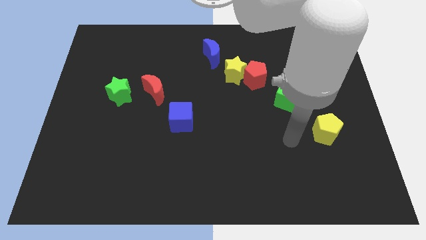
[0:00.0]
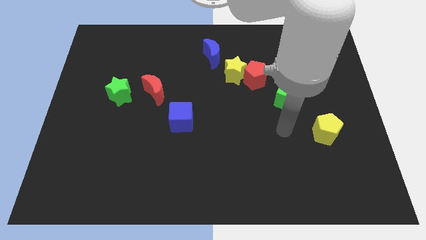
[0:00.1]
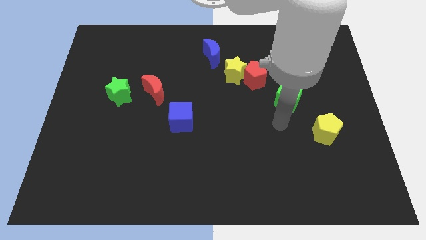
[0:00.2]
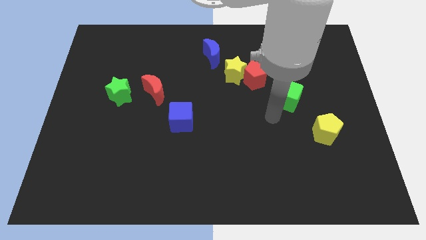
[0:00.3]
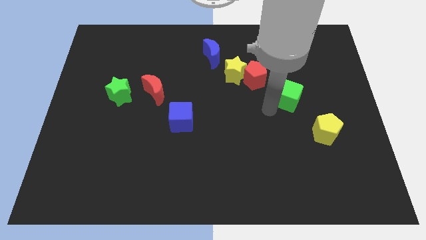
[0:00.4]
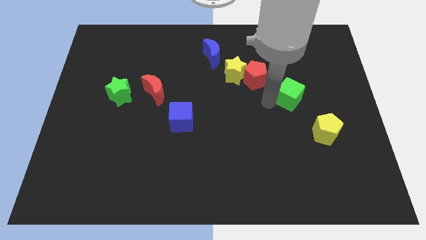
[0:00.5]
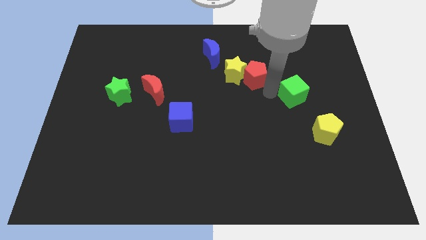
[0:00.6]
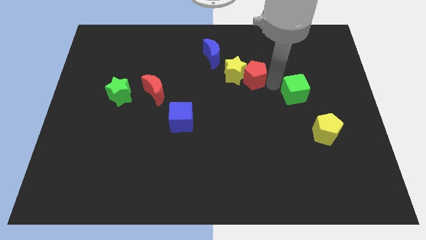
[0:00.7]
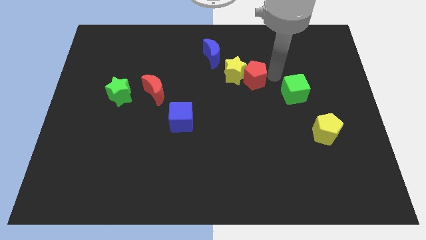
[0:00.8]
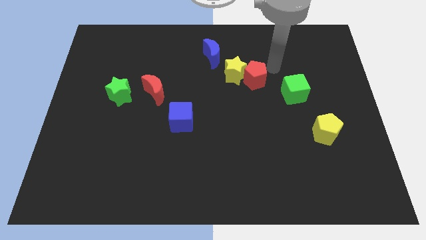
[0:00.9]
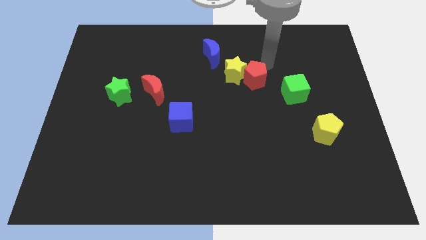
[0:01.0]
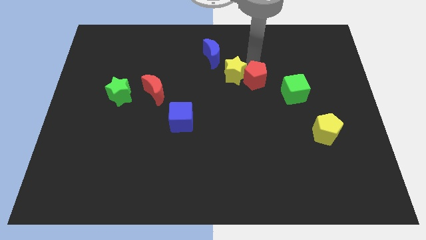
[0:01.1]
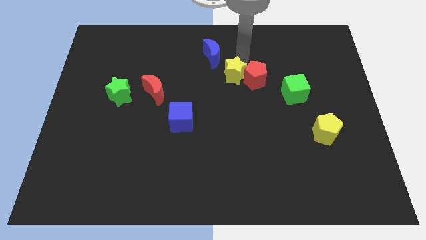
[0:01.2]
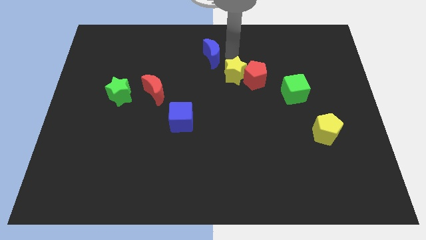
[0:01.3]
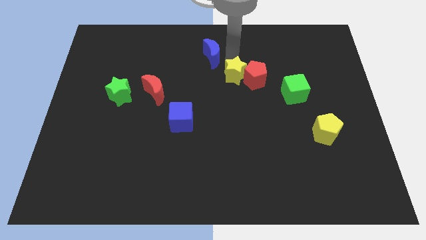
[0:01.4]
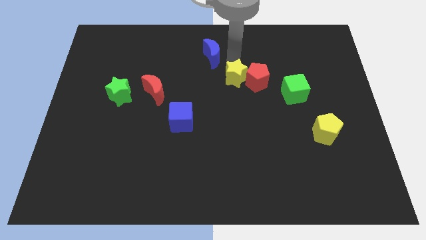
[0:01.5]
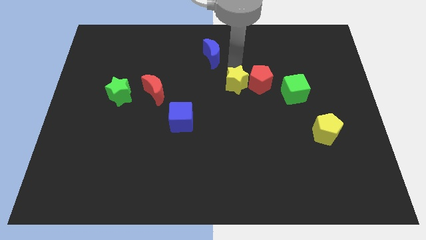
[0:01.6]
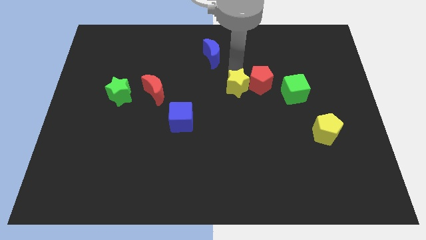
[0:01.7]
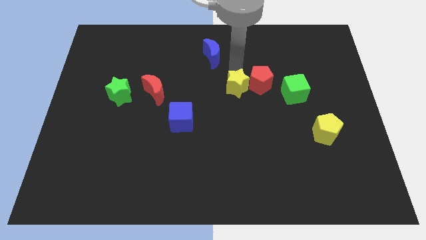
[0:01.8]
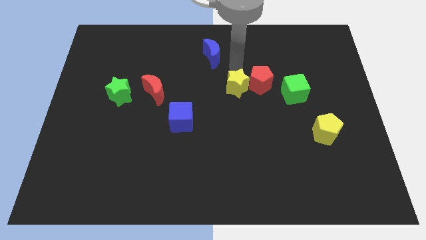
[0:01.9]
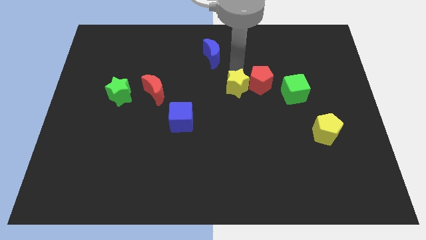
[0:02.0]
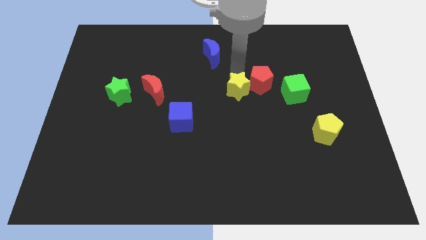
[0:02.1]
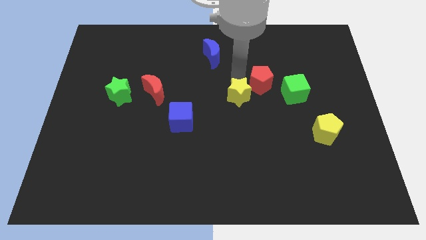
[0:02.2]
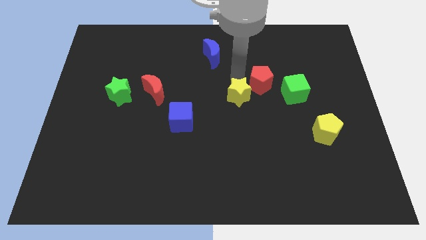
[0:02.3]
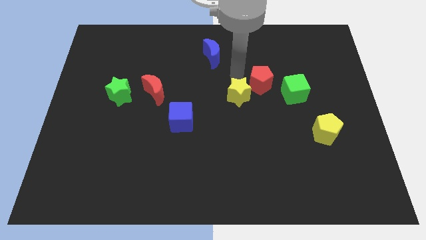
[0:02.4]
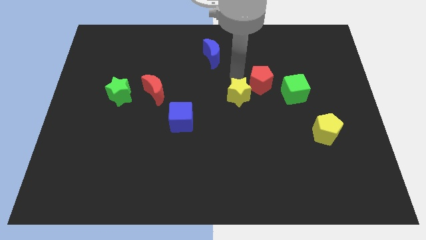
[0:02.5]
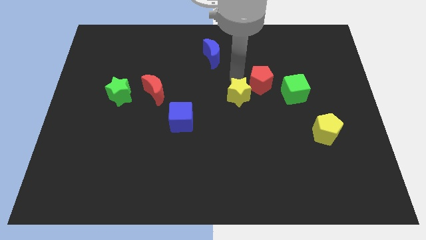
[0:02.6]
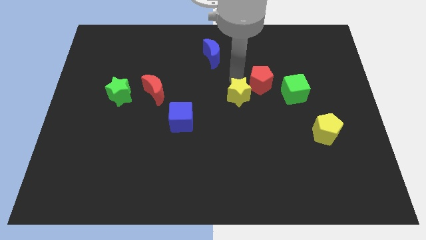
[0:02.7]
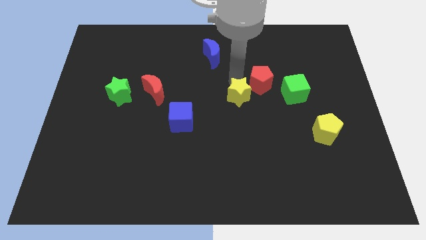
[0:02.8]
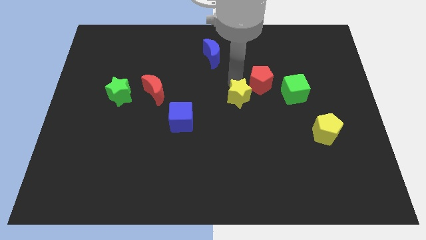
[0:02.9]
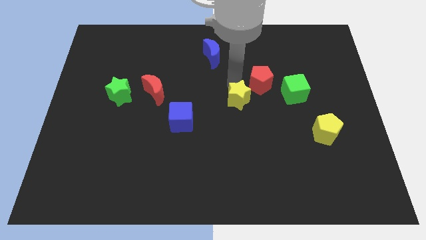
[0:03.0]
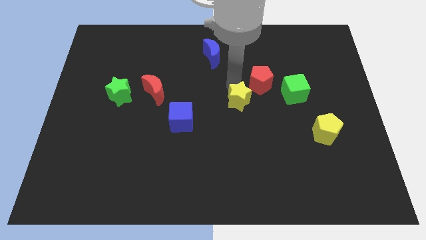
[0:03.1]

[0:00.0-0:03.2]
pull the yellow star apart from the red pentagon and blue moon

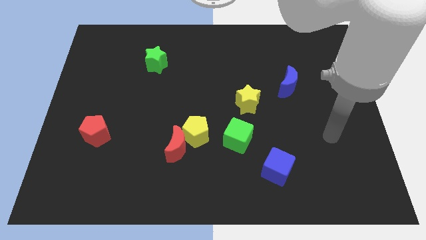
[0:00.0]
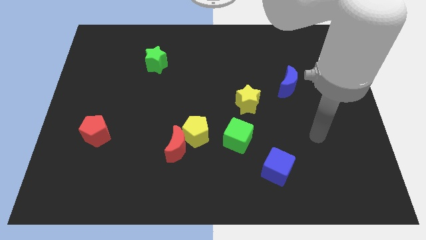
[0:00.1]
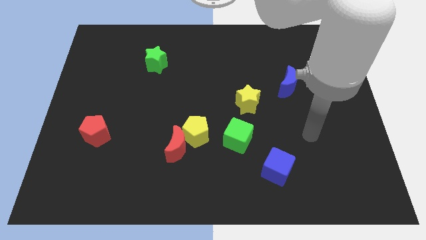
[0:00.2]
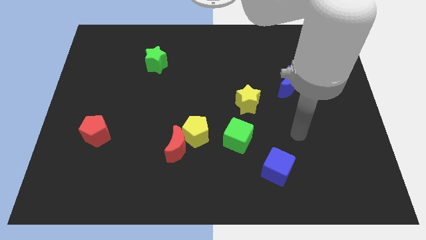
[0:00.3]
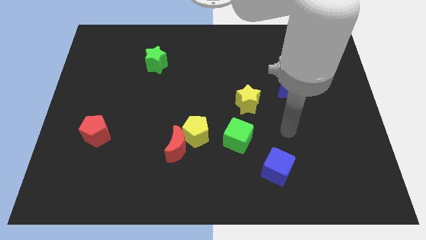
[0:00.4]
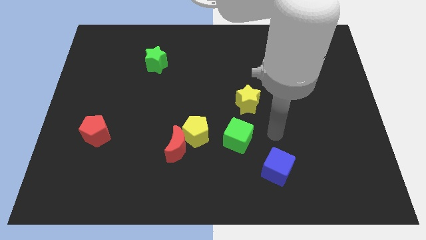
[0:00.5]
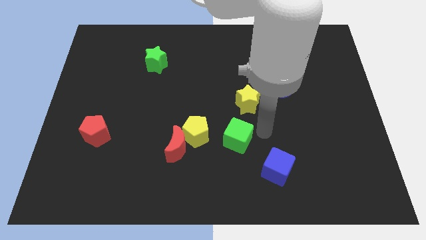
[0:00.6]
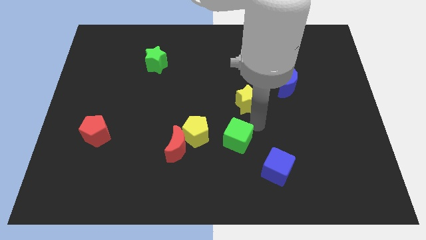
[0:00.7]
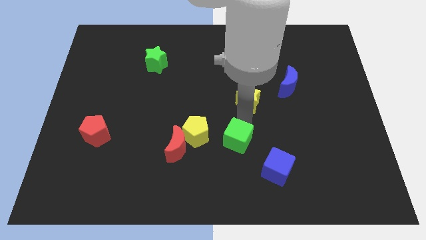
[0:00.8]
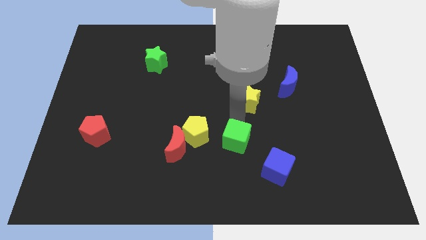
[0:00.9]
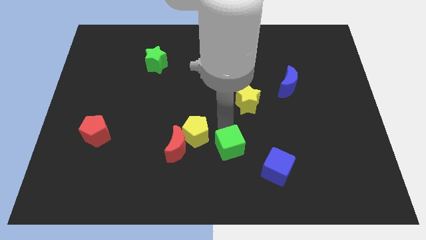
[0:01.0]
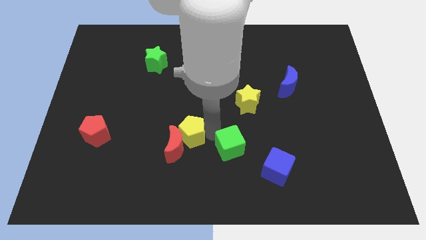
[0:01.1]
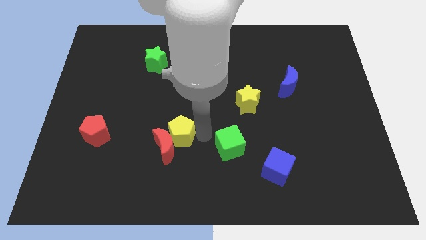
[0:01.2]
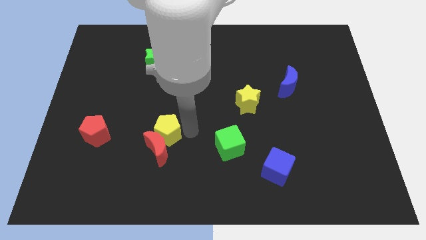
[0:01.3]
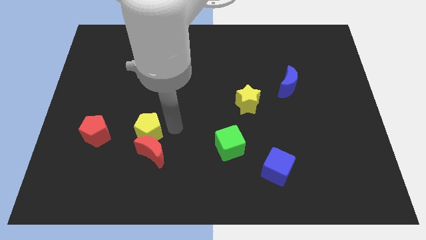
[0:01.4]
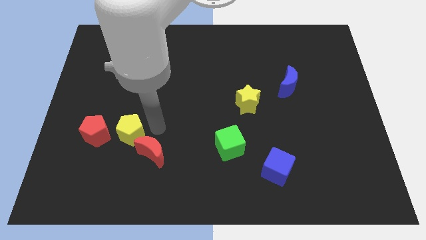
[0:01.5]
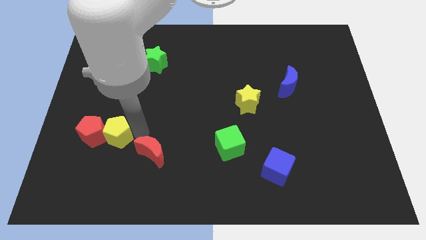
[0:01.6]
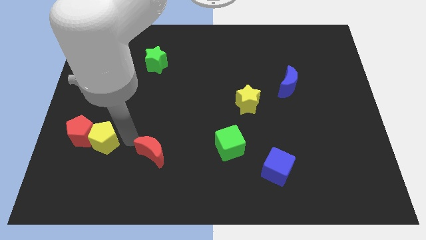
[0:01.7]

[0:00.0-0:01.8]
separate the red moon from the yellow pentagon

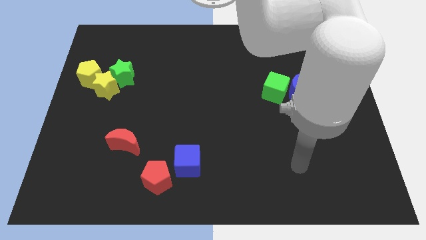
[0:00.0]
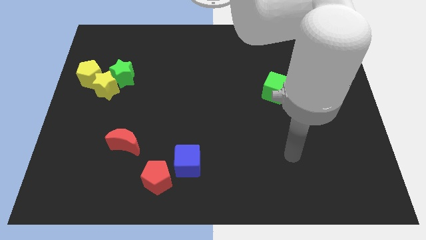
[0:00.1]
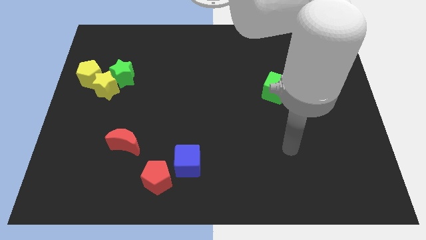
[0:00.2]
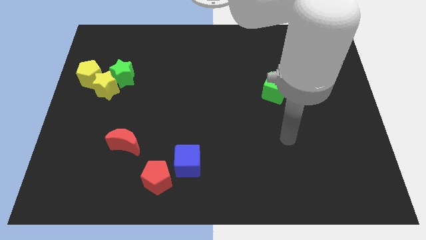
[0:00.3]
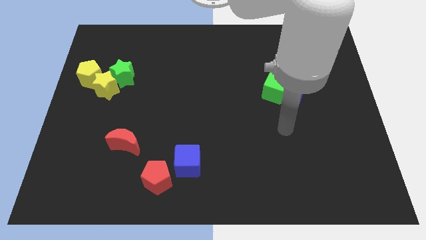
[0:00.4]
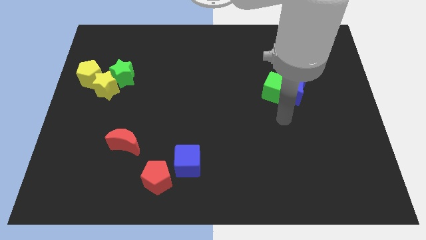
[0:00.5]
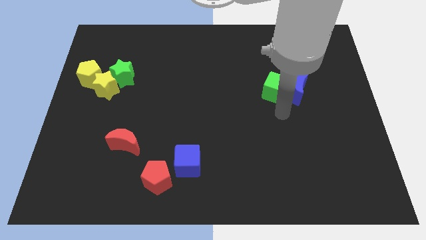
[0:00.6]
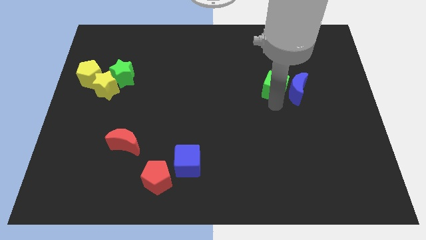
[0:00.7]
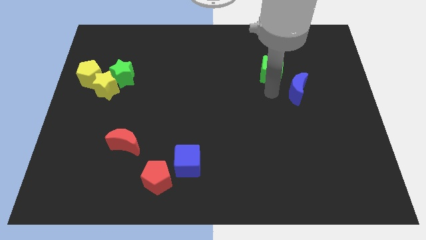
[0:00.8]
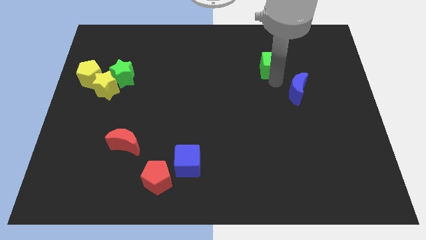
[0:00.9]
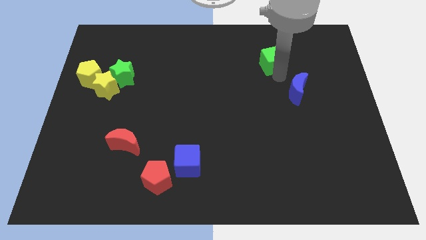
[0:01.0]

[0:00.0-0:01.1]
pull the blue moon apart from the green cube

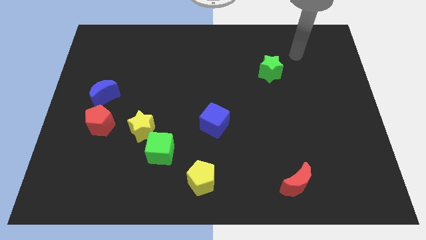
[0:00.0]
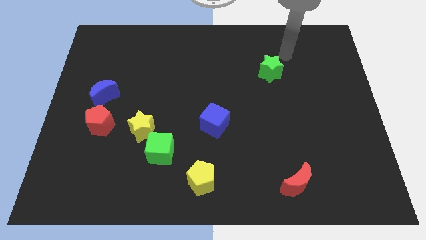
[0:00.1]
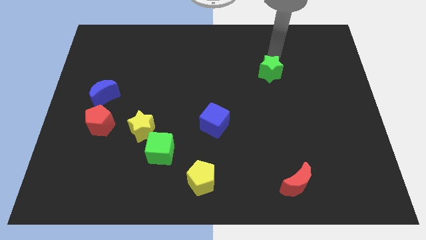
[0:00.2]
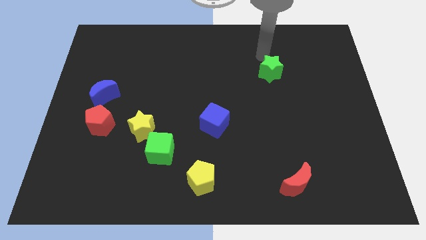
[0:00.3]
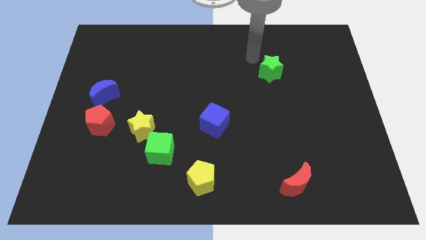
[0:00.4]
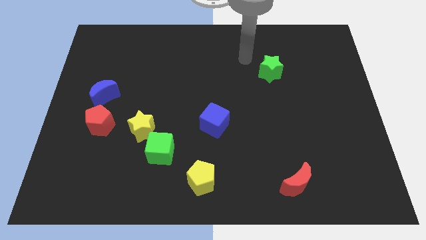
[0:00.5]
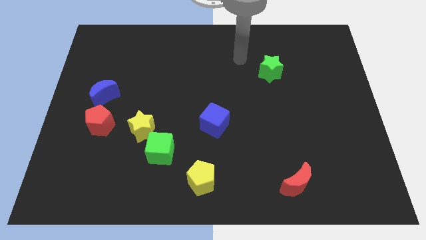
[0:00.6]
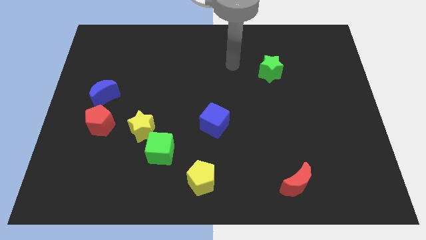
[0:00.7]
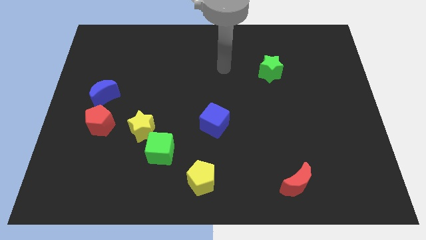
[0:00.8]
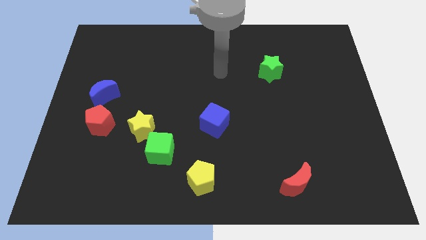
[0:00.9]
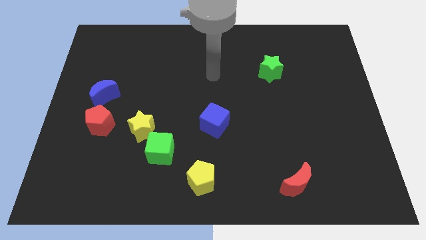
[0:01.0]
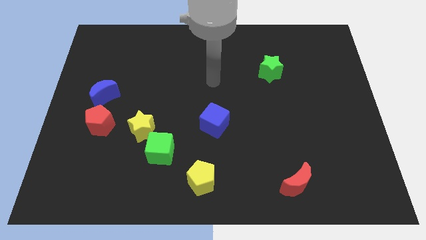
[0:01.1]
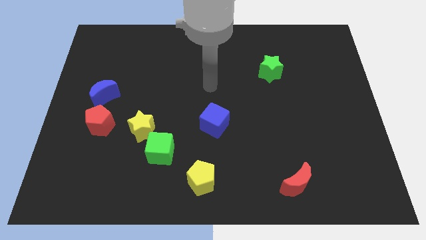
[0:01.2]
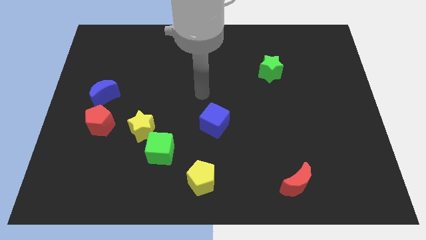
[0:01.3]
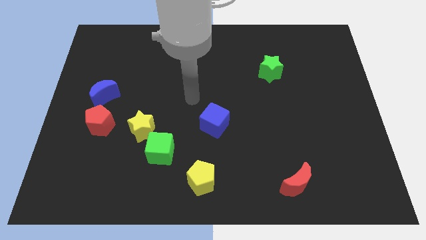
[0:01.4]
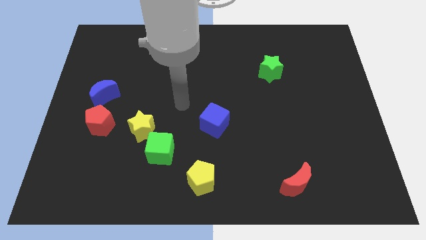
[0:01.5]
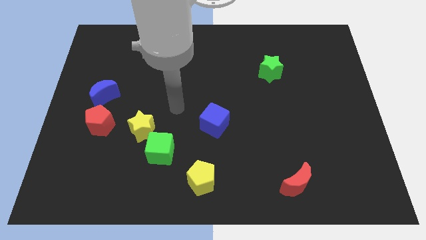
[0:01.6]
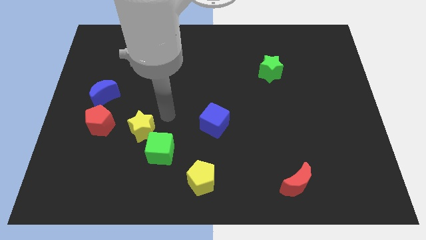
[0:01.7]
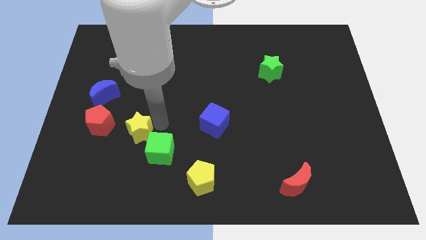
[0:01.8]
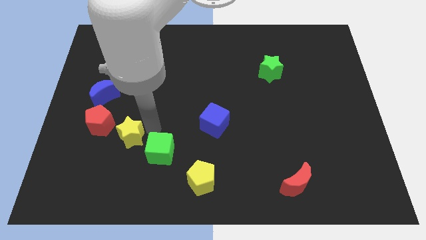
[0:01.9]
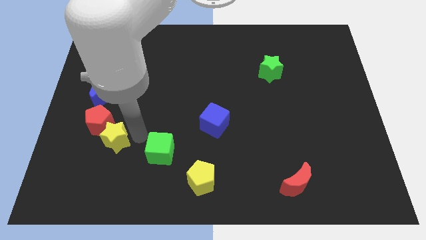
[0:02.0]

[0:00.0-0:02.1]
separate the green cube from the yellow star

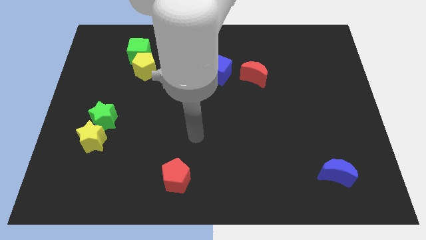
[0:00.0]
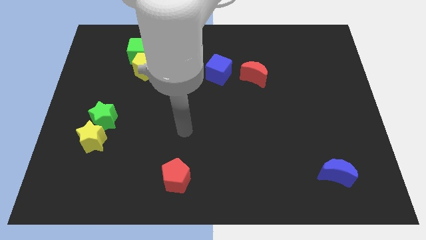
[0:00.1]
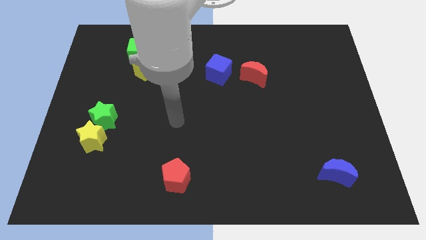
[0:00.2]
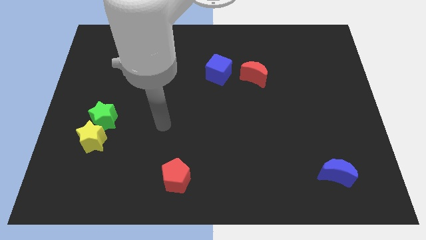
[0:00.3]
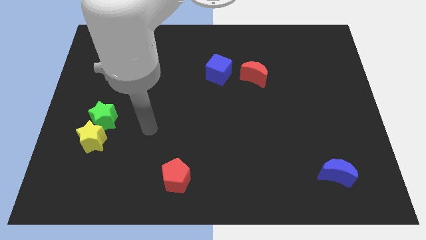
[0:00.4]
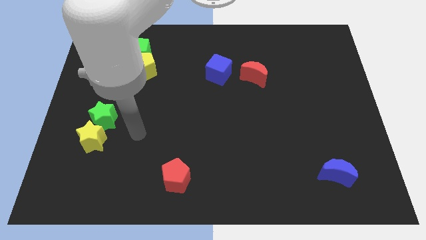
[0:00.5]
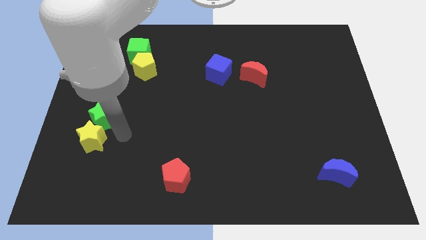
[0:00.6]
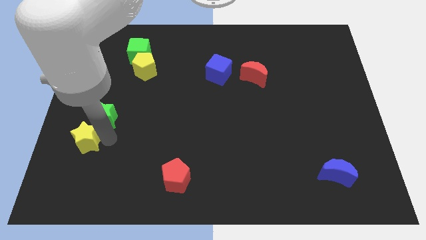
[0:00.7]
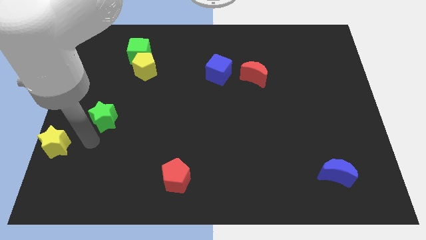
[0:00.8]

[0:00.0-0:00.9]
pull the green star apart from the yellow star
